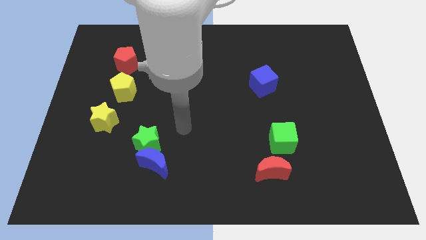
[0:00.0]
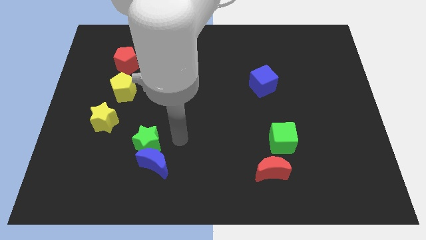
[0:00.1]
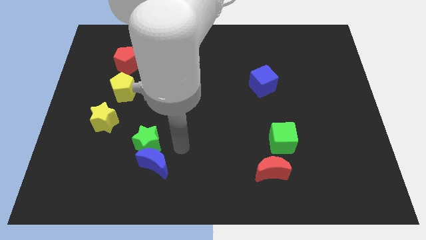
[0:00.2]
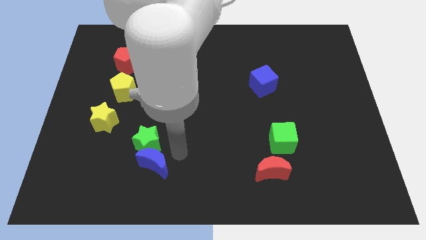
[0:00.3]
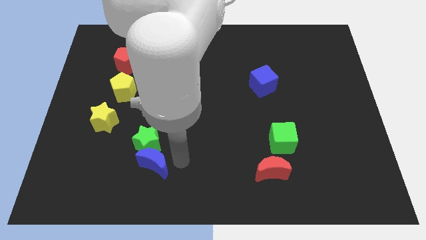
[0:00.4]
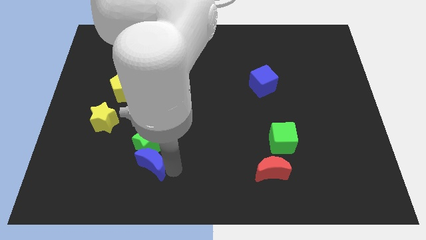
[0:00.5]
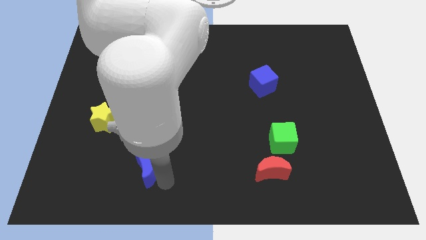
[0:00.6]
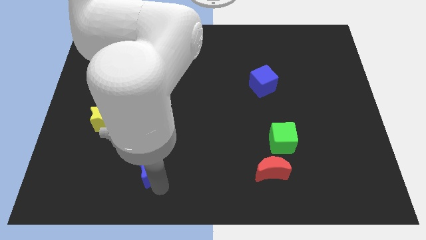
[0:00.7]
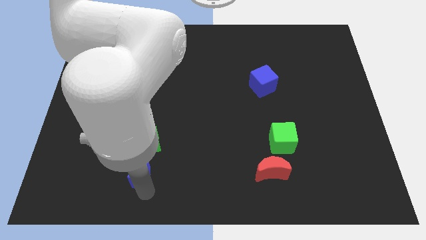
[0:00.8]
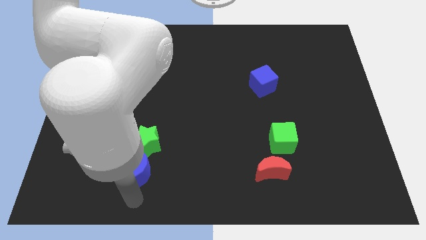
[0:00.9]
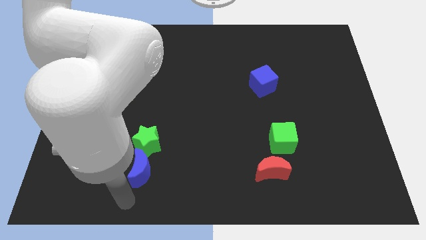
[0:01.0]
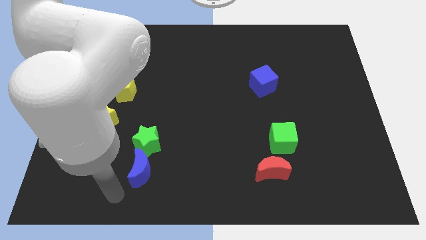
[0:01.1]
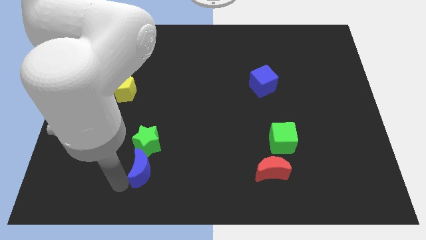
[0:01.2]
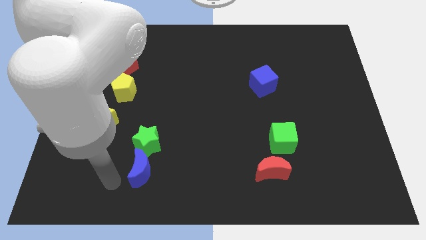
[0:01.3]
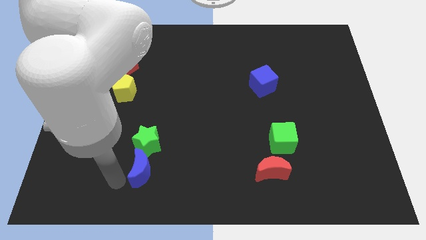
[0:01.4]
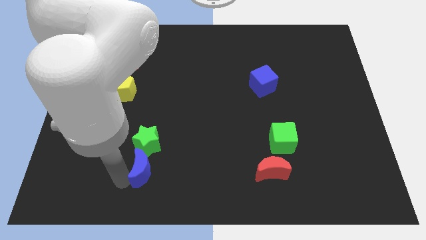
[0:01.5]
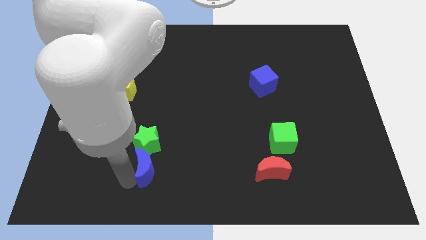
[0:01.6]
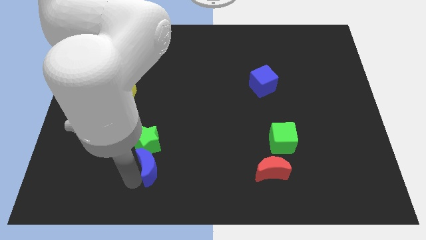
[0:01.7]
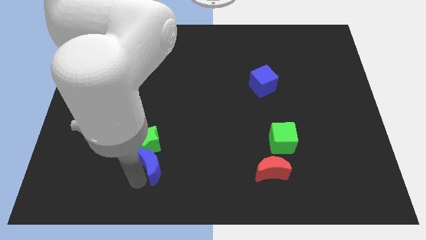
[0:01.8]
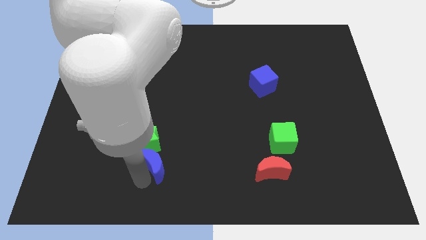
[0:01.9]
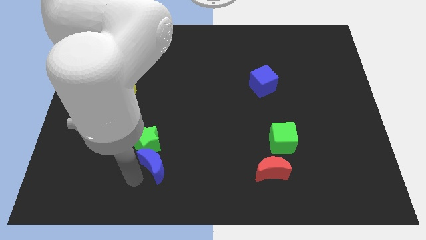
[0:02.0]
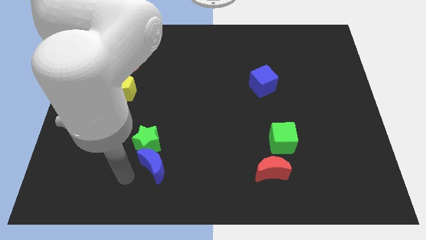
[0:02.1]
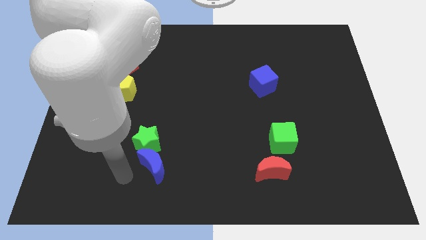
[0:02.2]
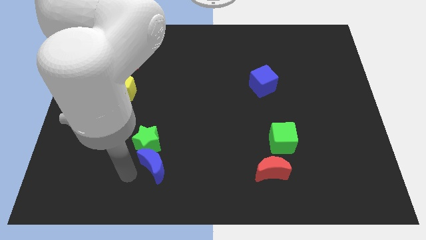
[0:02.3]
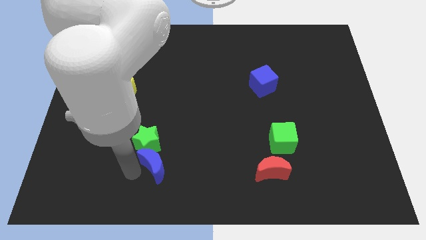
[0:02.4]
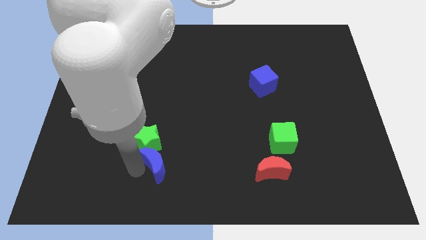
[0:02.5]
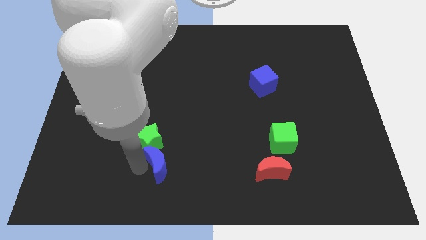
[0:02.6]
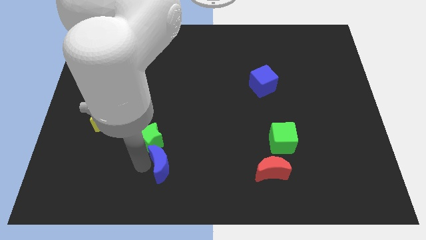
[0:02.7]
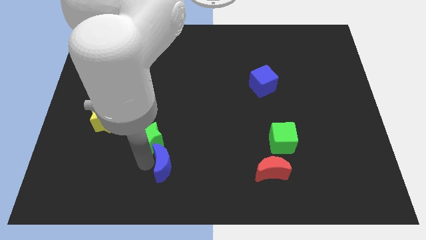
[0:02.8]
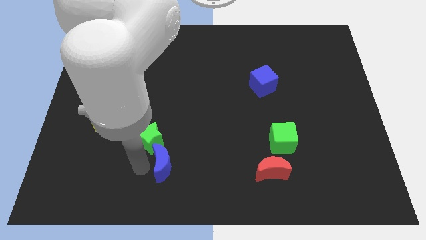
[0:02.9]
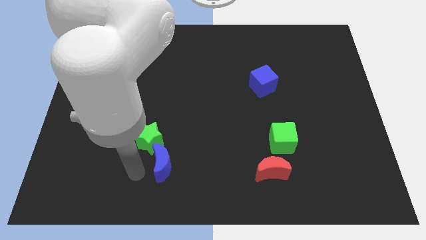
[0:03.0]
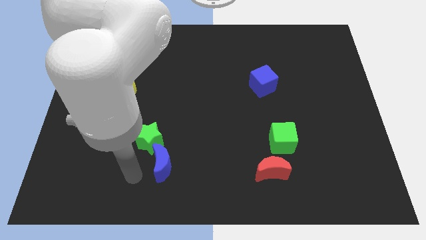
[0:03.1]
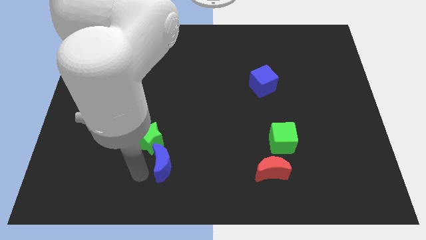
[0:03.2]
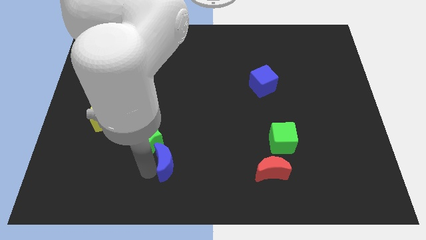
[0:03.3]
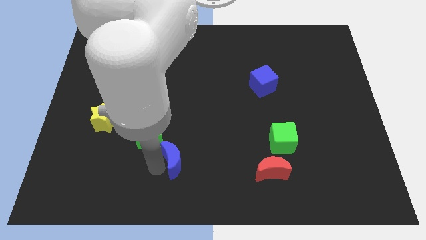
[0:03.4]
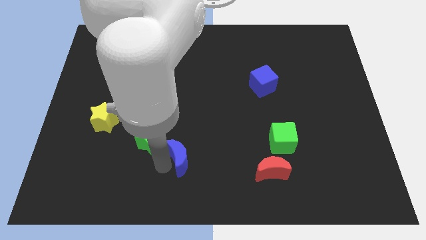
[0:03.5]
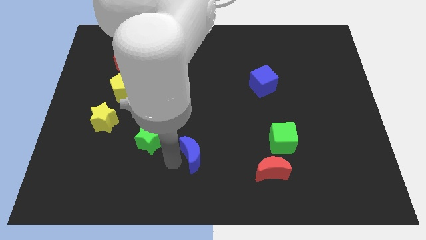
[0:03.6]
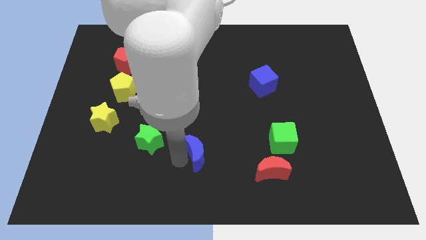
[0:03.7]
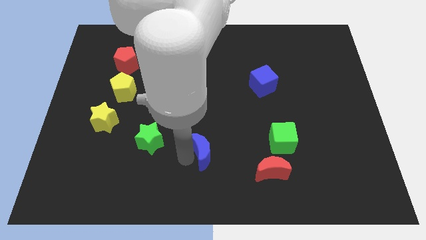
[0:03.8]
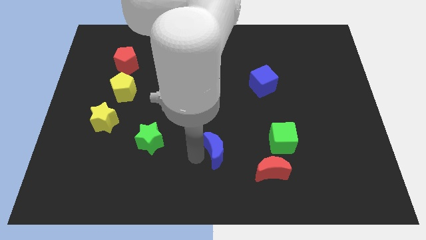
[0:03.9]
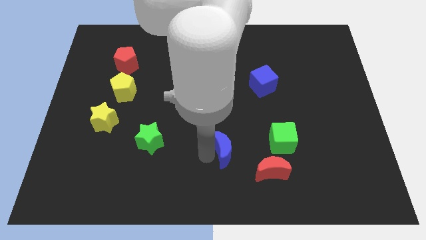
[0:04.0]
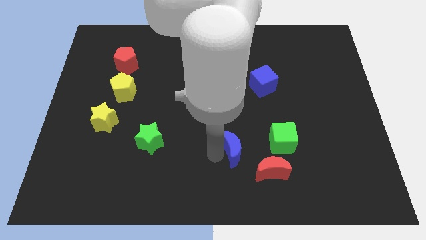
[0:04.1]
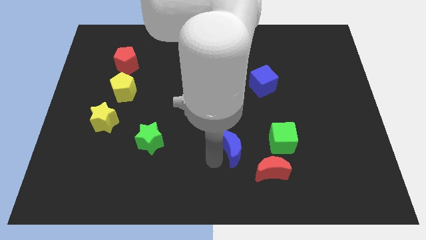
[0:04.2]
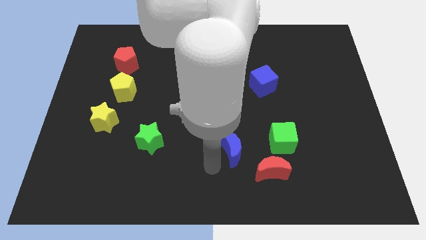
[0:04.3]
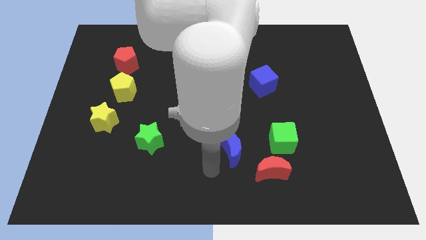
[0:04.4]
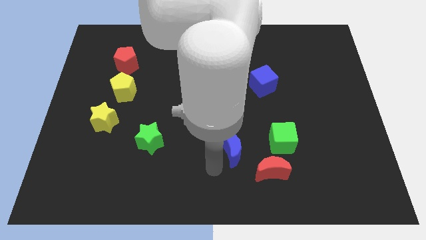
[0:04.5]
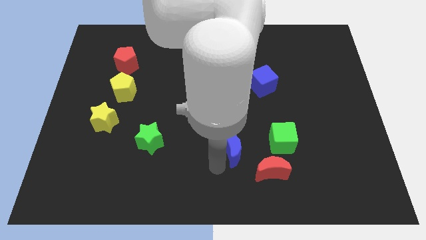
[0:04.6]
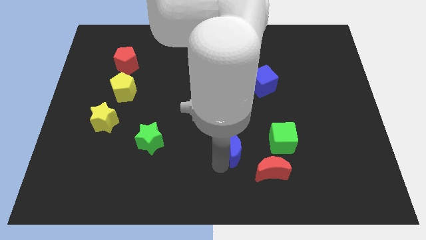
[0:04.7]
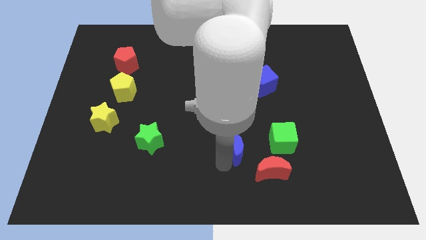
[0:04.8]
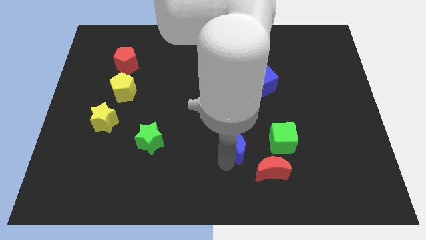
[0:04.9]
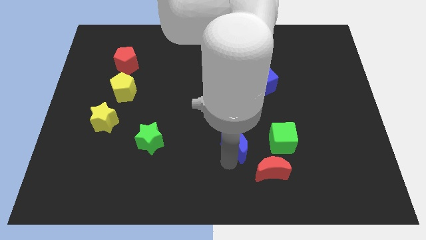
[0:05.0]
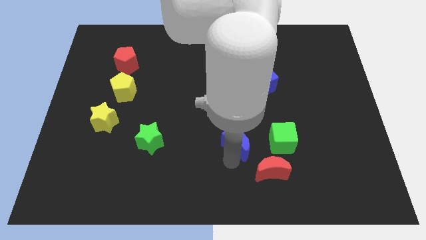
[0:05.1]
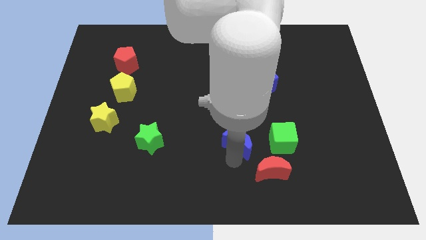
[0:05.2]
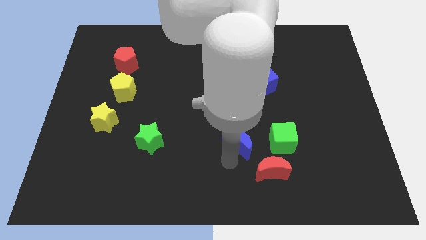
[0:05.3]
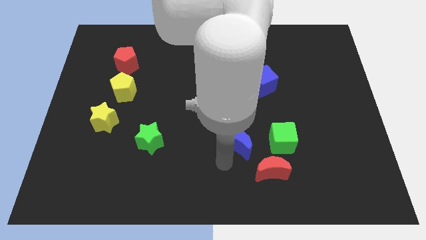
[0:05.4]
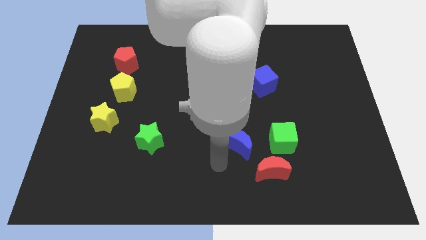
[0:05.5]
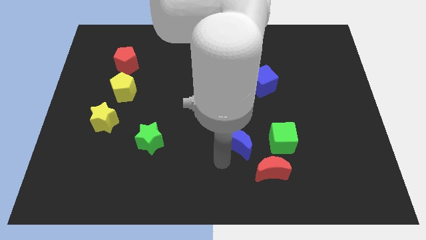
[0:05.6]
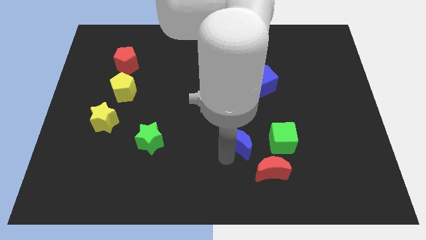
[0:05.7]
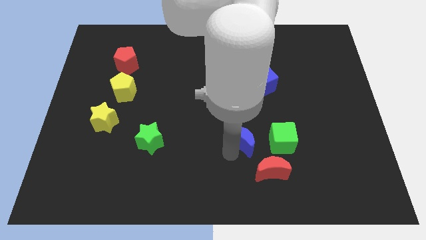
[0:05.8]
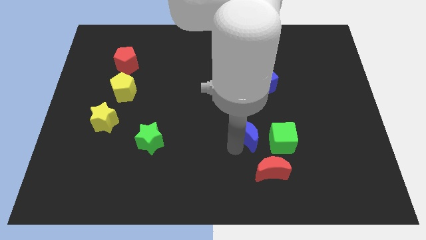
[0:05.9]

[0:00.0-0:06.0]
slide the blue moon to the top side of the red moon

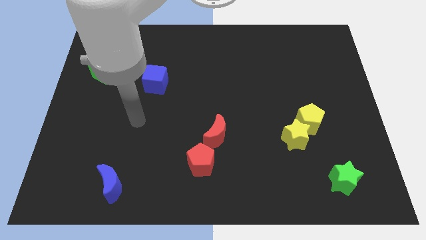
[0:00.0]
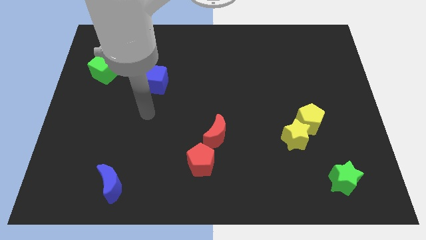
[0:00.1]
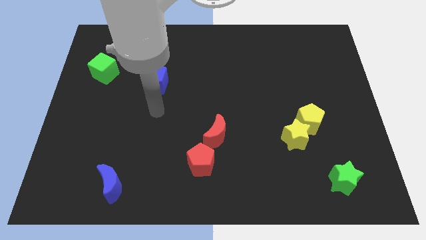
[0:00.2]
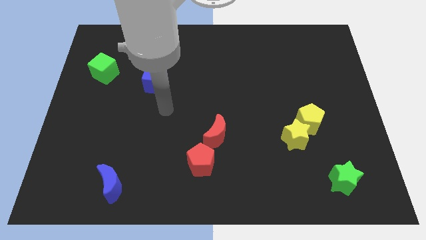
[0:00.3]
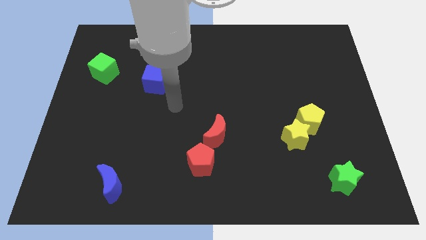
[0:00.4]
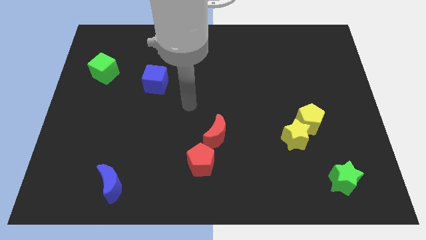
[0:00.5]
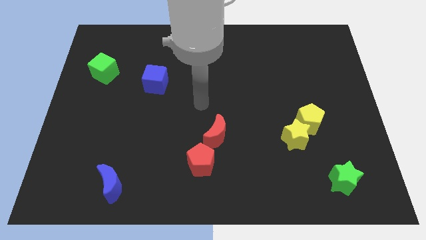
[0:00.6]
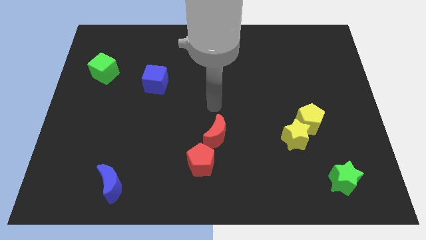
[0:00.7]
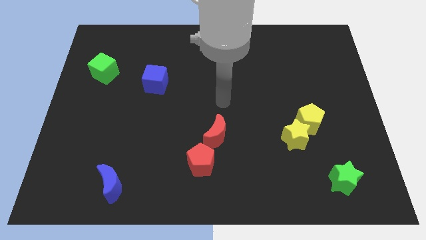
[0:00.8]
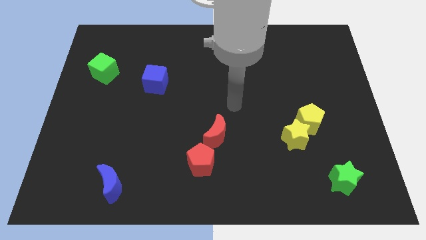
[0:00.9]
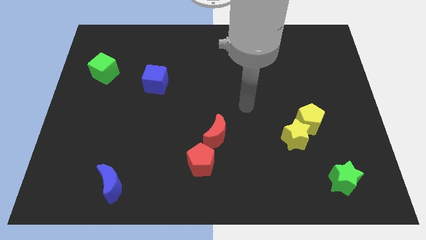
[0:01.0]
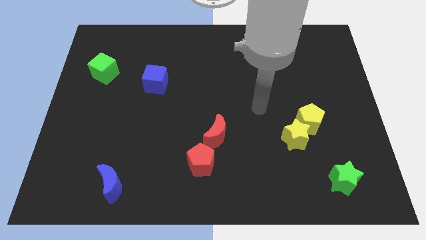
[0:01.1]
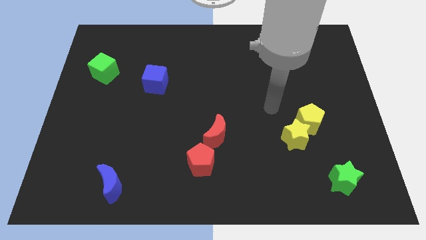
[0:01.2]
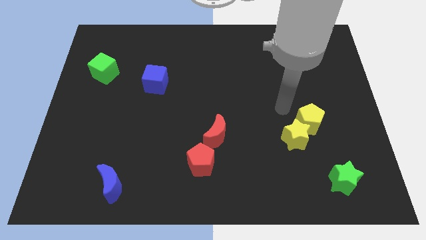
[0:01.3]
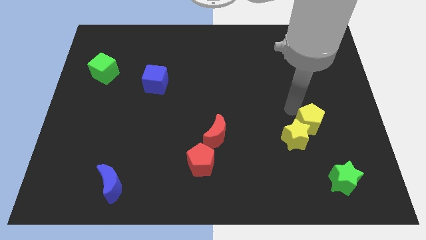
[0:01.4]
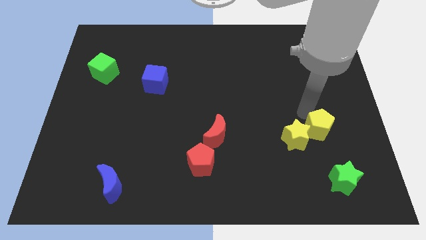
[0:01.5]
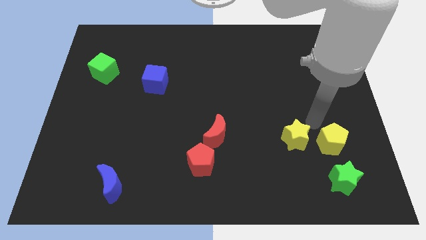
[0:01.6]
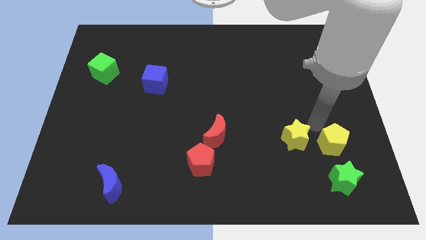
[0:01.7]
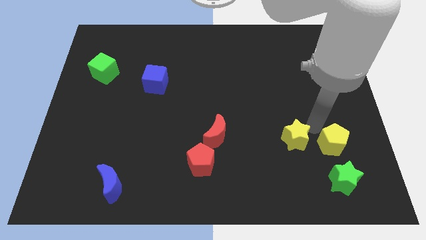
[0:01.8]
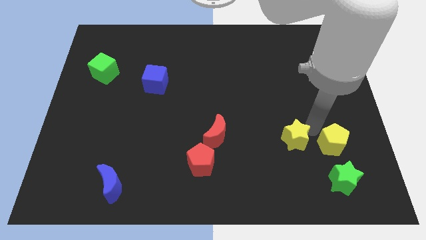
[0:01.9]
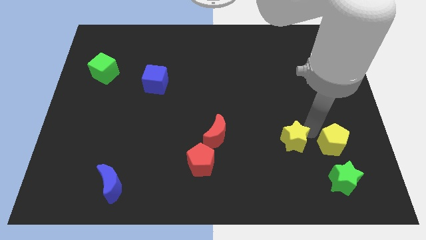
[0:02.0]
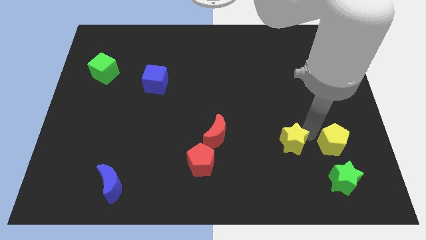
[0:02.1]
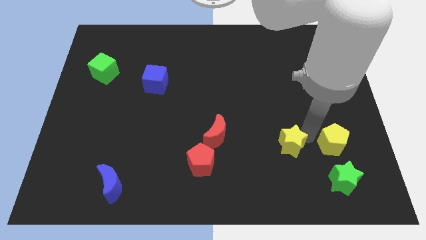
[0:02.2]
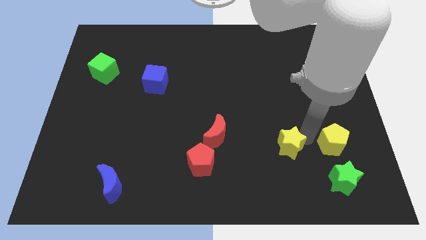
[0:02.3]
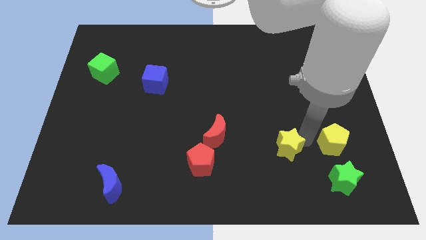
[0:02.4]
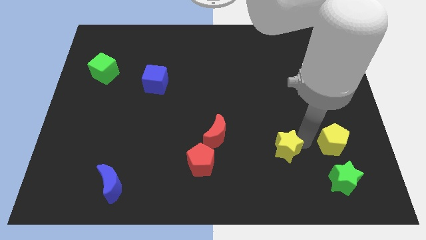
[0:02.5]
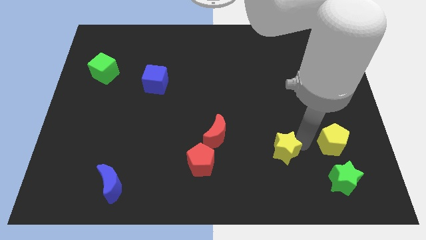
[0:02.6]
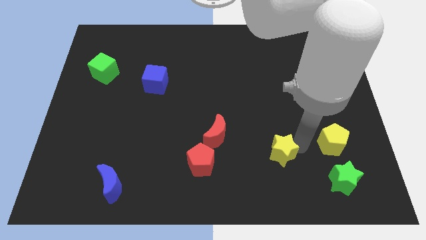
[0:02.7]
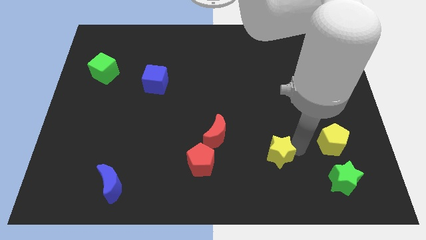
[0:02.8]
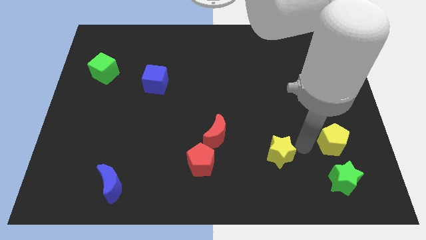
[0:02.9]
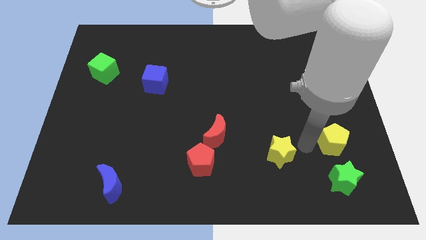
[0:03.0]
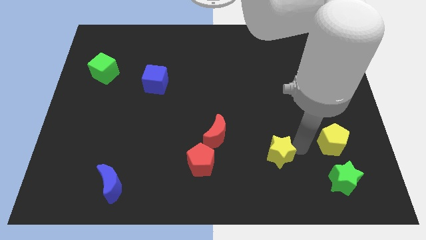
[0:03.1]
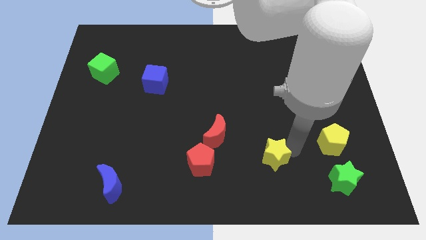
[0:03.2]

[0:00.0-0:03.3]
put the yellow star just right of the red pentagon
